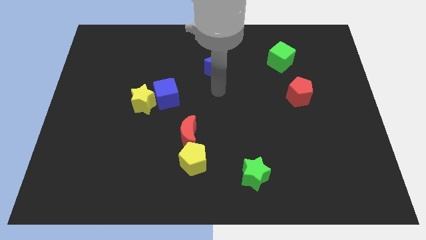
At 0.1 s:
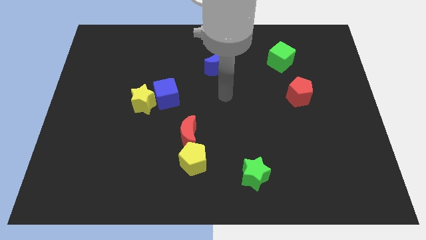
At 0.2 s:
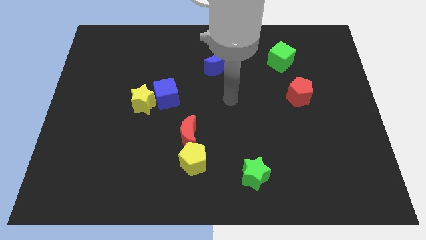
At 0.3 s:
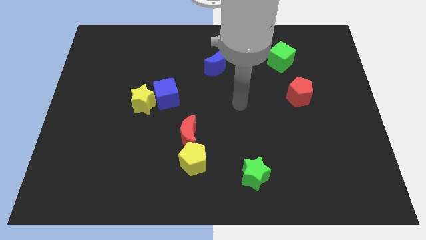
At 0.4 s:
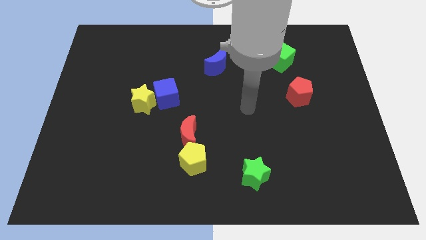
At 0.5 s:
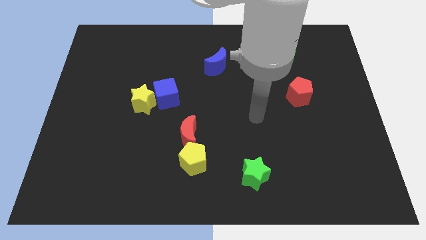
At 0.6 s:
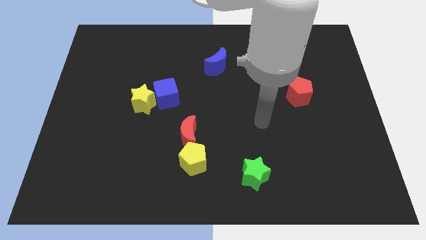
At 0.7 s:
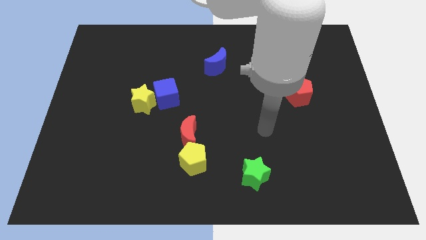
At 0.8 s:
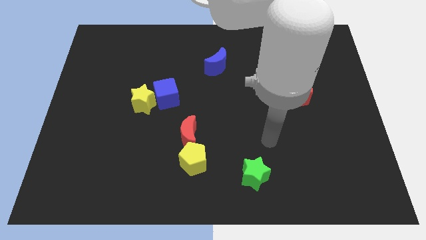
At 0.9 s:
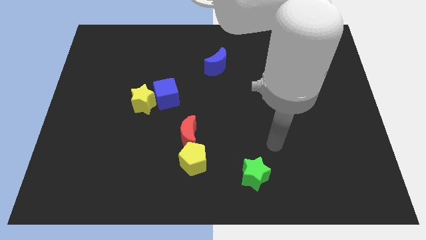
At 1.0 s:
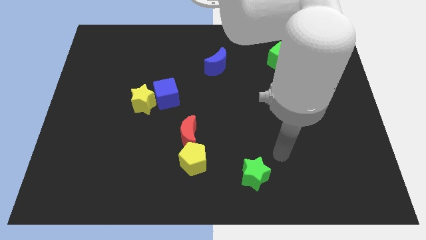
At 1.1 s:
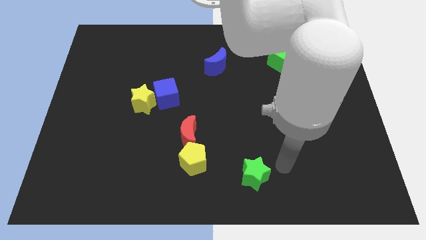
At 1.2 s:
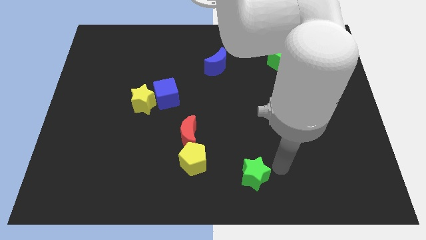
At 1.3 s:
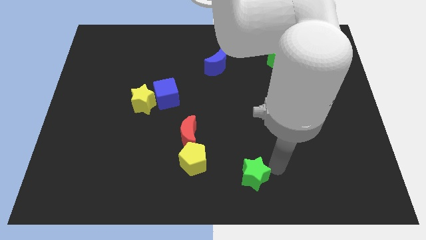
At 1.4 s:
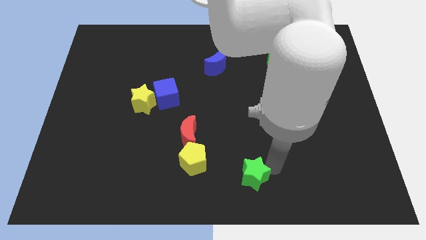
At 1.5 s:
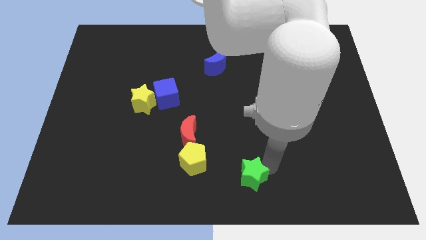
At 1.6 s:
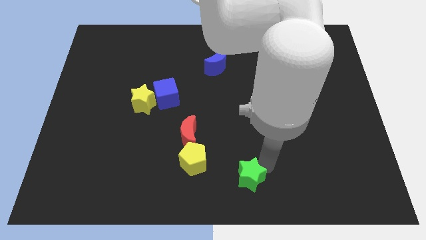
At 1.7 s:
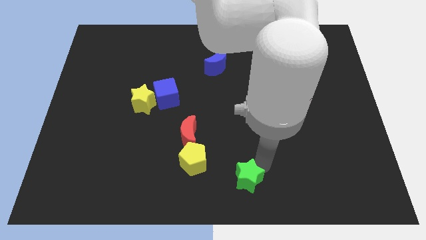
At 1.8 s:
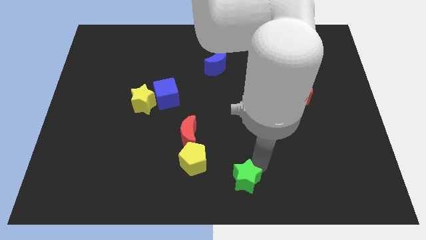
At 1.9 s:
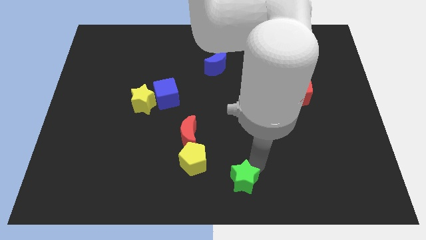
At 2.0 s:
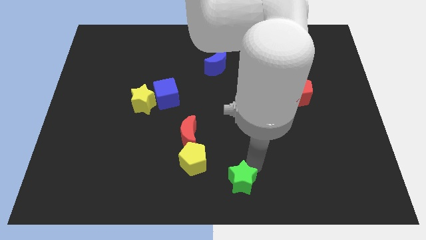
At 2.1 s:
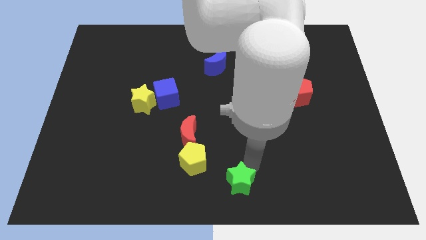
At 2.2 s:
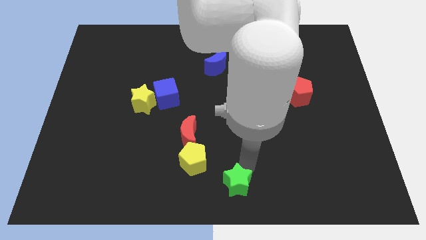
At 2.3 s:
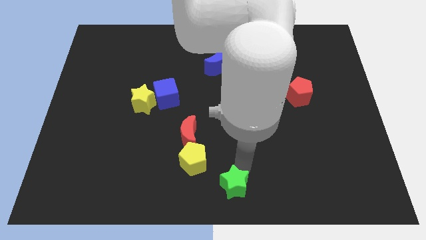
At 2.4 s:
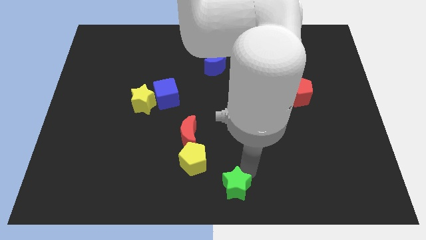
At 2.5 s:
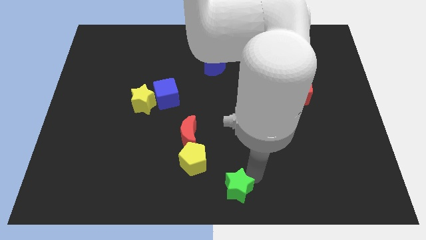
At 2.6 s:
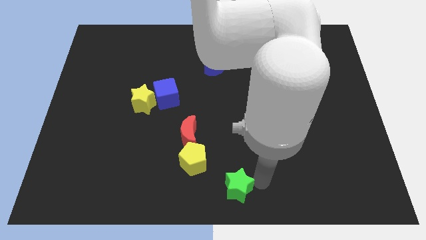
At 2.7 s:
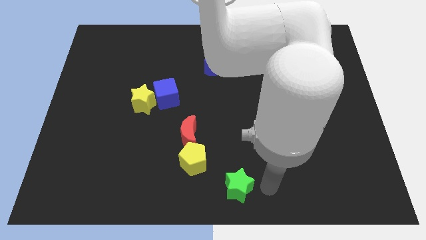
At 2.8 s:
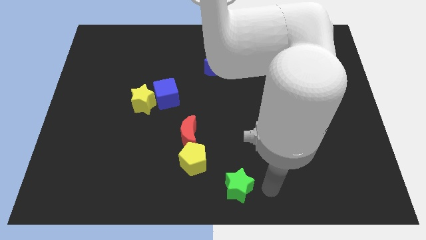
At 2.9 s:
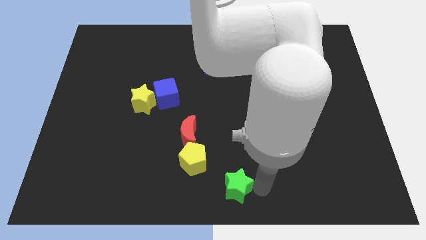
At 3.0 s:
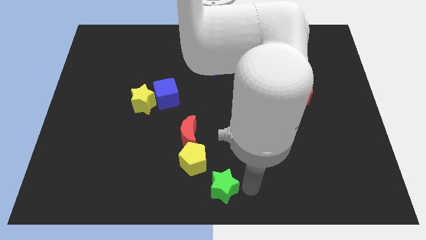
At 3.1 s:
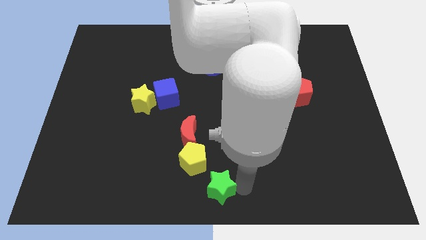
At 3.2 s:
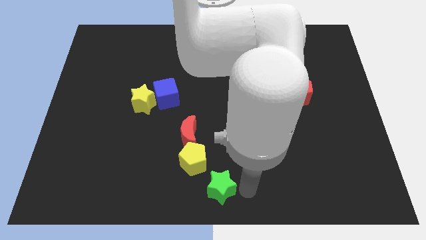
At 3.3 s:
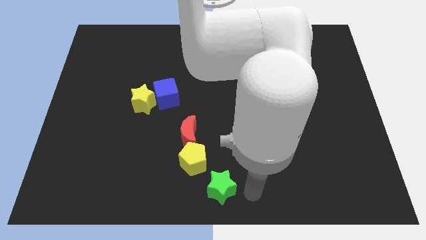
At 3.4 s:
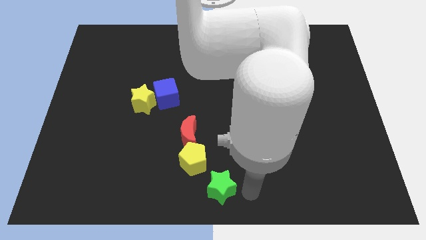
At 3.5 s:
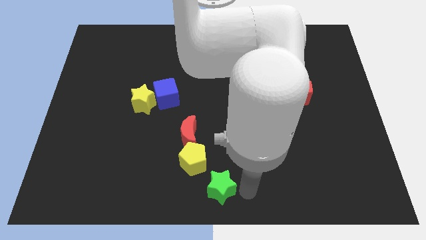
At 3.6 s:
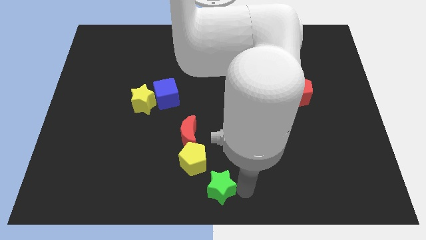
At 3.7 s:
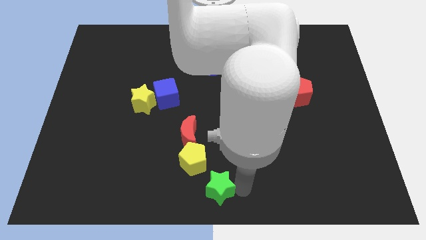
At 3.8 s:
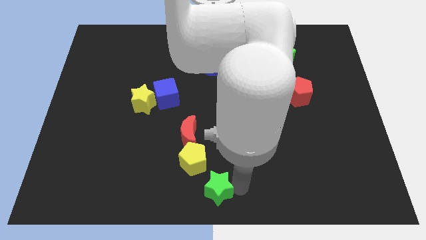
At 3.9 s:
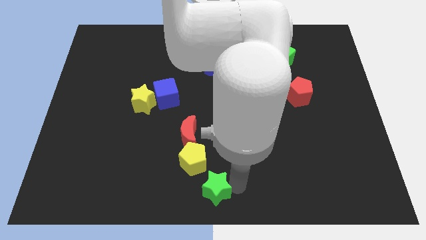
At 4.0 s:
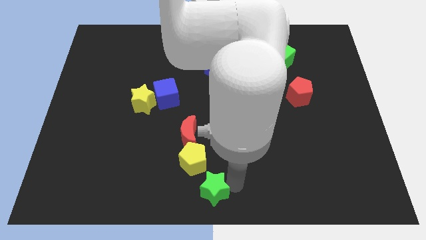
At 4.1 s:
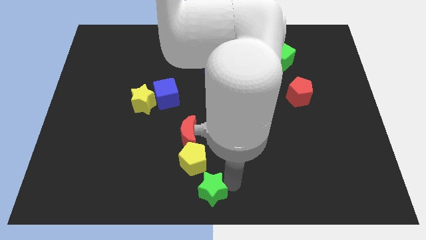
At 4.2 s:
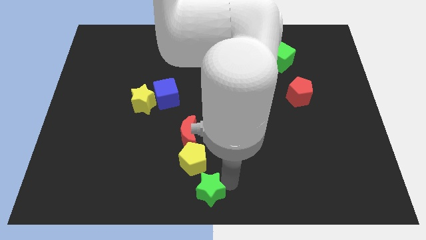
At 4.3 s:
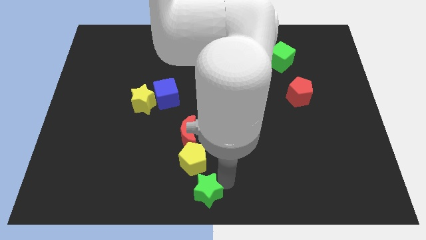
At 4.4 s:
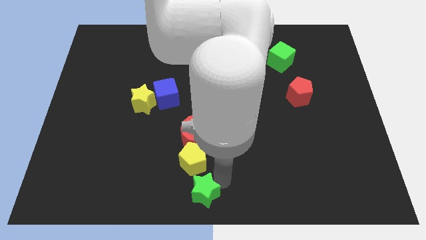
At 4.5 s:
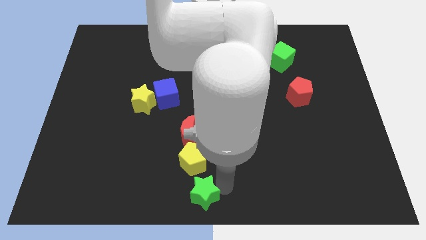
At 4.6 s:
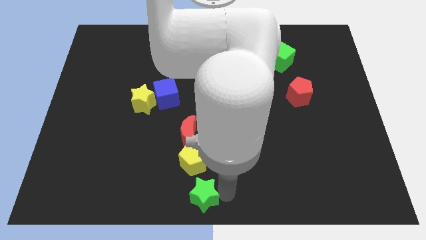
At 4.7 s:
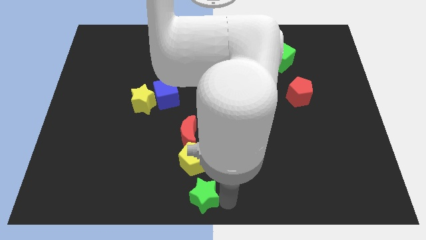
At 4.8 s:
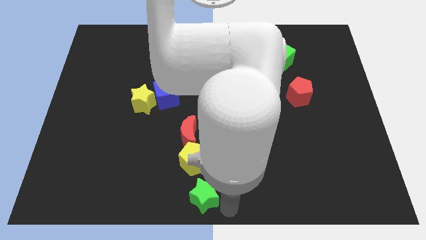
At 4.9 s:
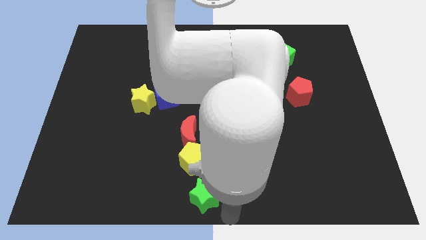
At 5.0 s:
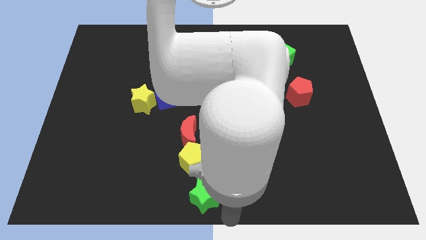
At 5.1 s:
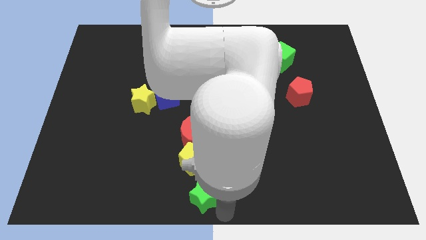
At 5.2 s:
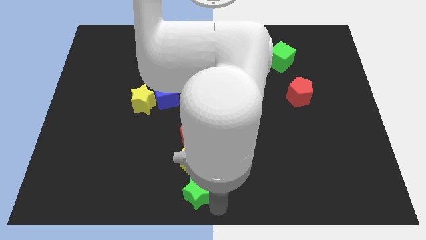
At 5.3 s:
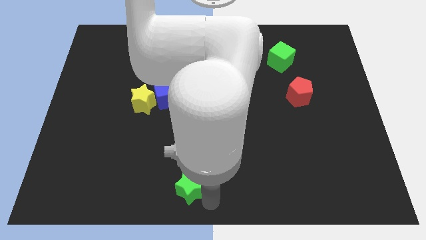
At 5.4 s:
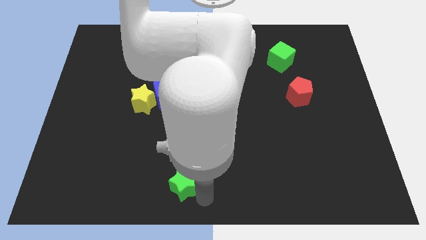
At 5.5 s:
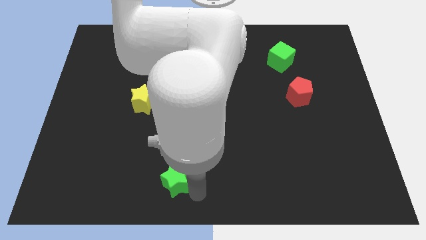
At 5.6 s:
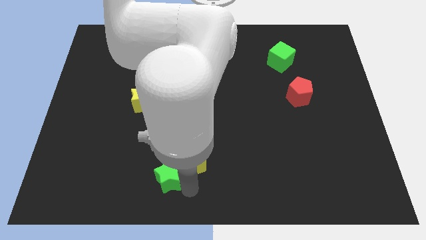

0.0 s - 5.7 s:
slide the green star left of the yellow pentagon

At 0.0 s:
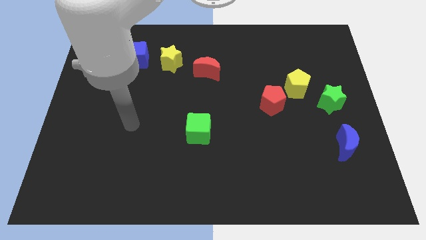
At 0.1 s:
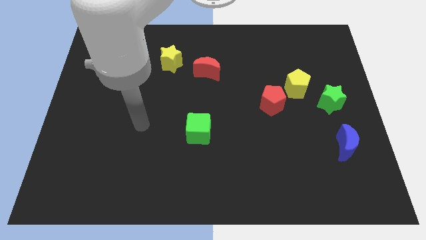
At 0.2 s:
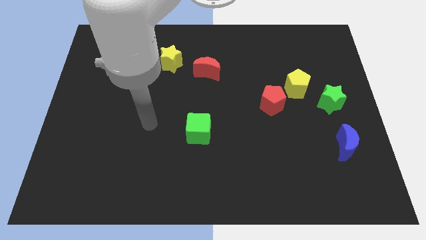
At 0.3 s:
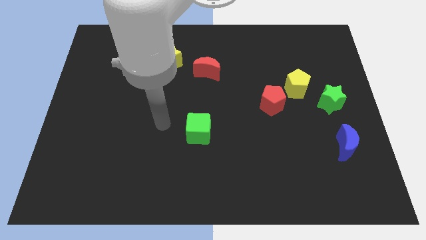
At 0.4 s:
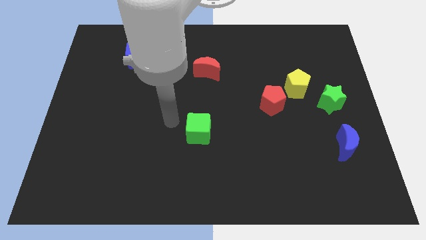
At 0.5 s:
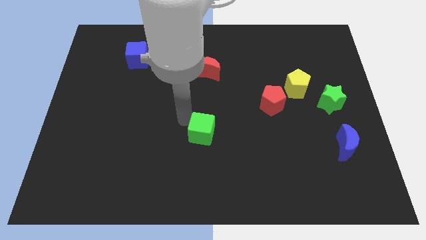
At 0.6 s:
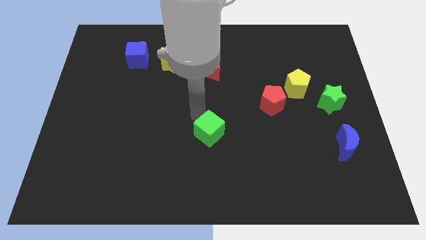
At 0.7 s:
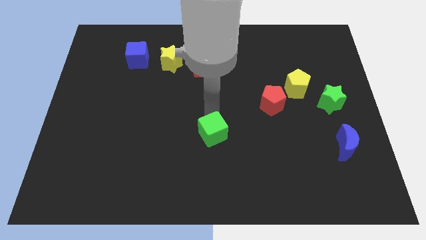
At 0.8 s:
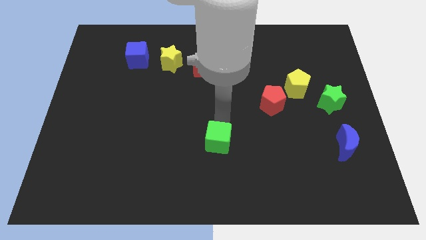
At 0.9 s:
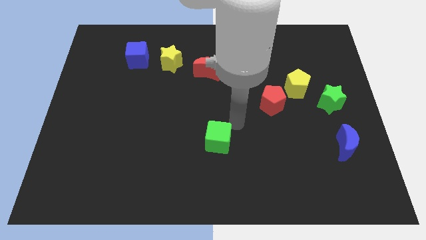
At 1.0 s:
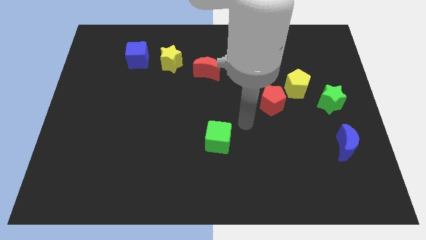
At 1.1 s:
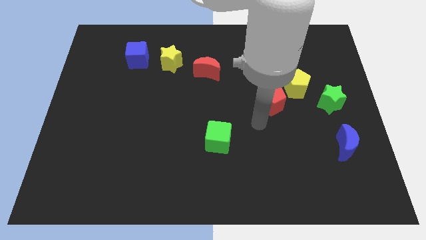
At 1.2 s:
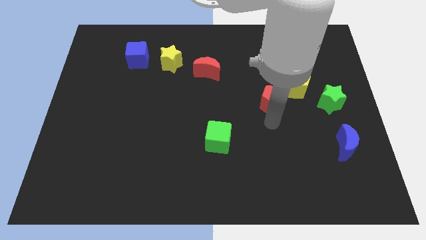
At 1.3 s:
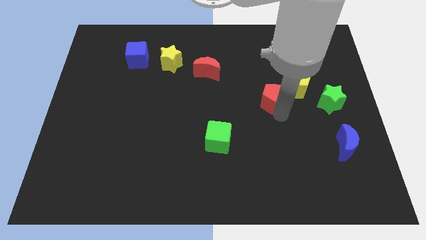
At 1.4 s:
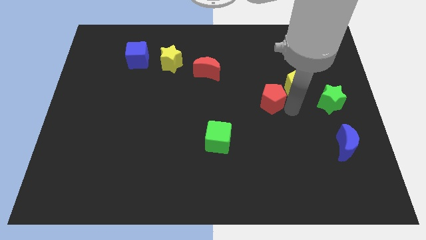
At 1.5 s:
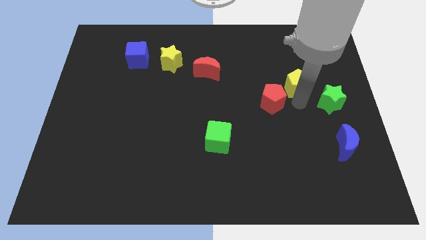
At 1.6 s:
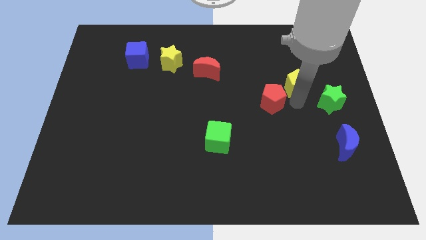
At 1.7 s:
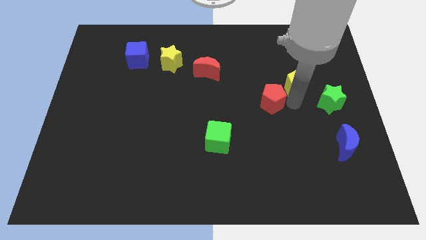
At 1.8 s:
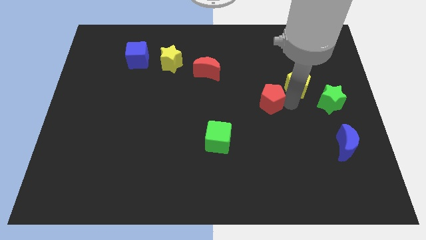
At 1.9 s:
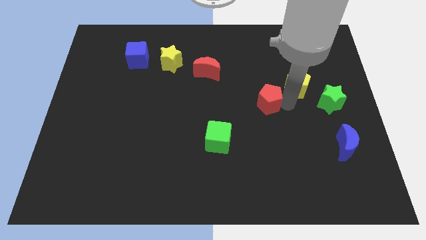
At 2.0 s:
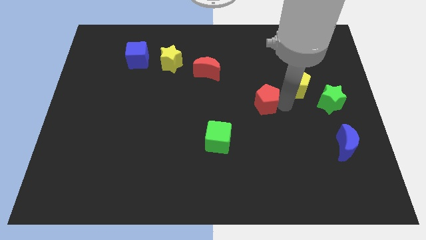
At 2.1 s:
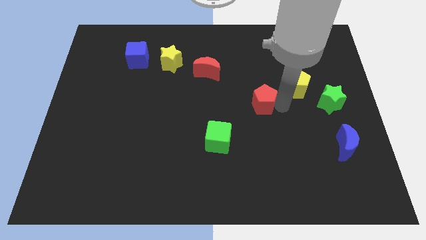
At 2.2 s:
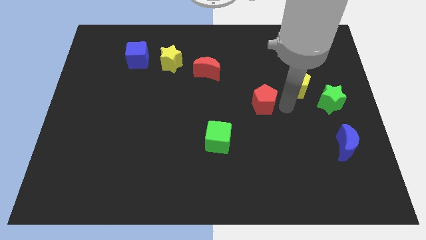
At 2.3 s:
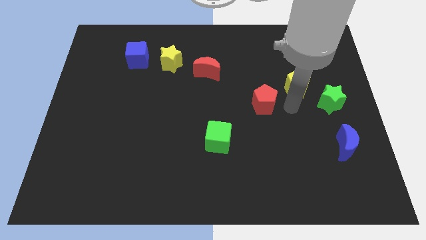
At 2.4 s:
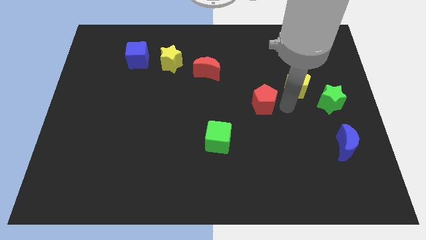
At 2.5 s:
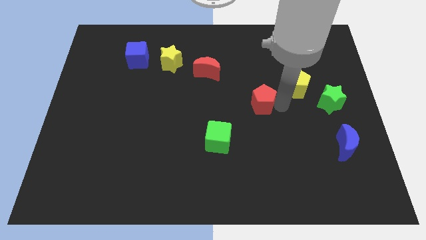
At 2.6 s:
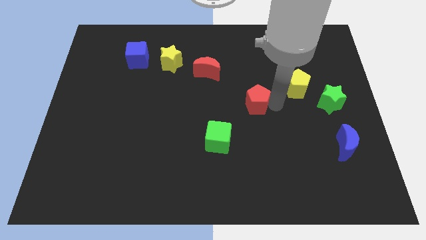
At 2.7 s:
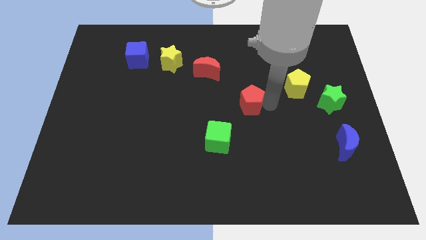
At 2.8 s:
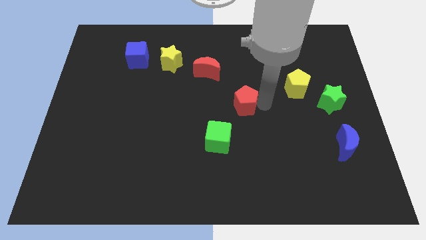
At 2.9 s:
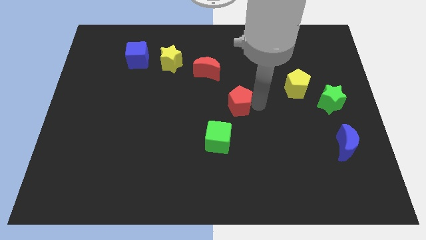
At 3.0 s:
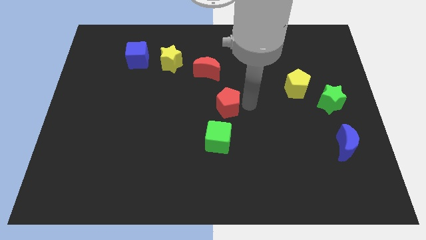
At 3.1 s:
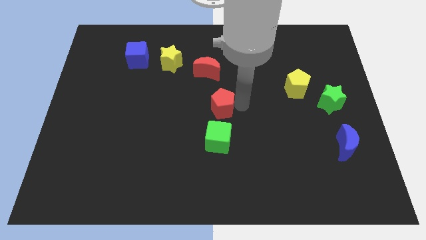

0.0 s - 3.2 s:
move the red pentagon below the red moon
